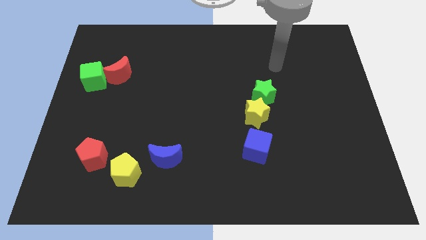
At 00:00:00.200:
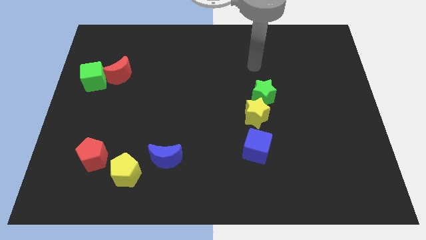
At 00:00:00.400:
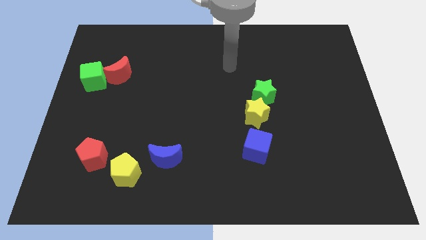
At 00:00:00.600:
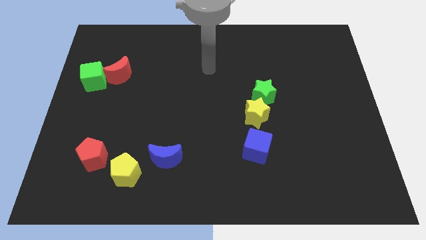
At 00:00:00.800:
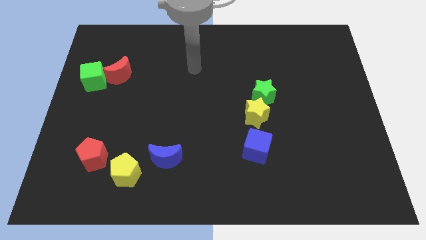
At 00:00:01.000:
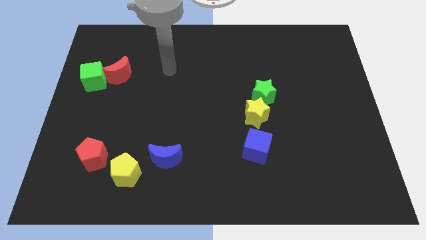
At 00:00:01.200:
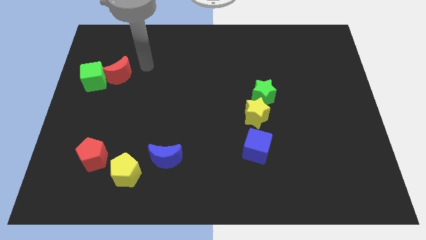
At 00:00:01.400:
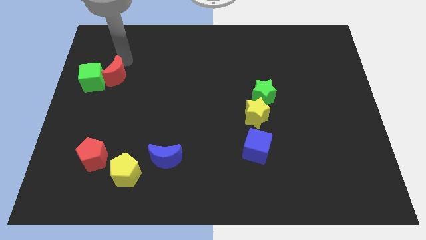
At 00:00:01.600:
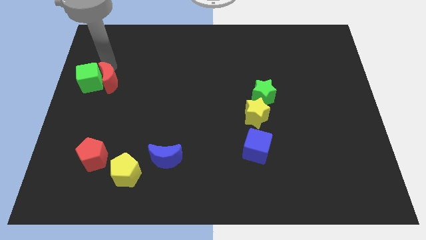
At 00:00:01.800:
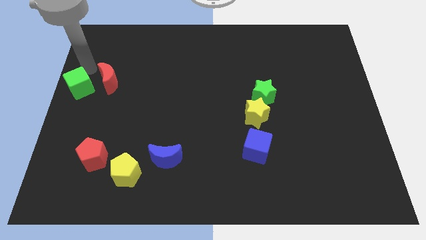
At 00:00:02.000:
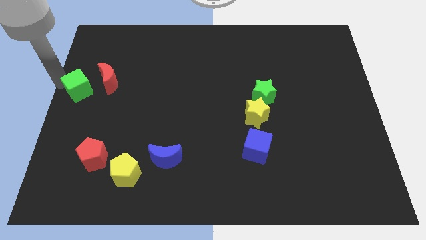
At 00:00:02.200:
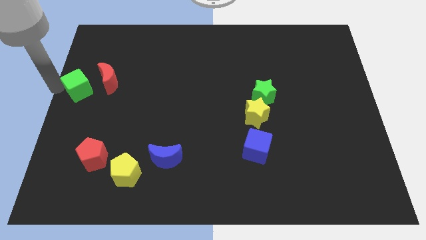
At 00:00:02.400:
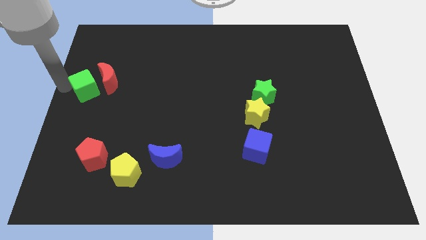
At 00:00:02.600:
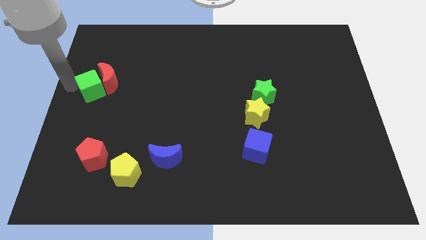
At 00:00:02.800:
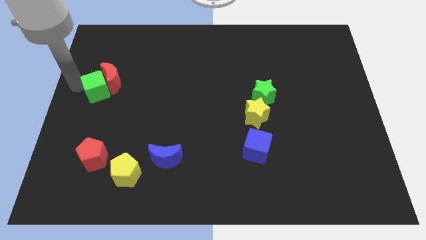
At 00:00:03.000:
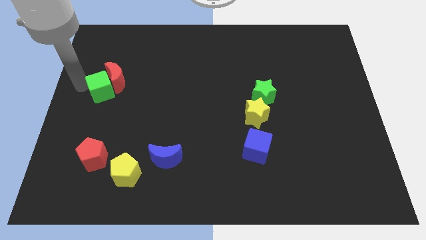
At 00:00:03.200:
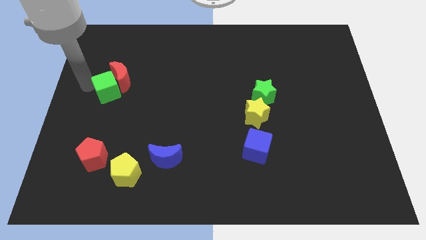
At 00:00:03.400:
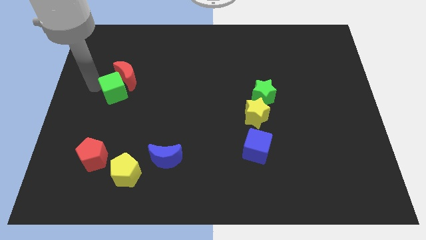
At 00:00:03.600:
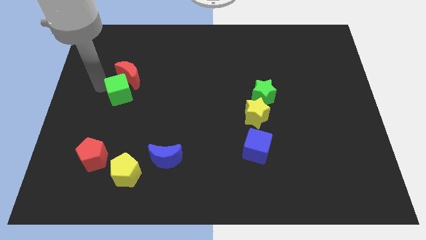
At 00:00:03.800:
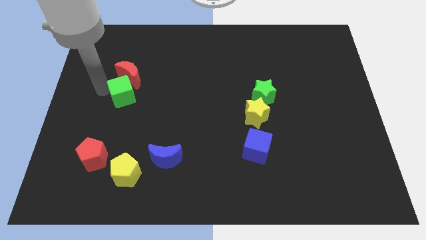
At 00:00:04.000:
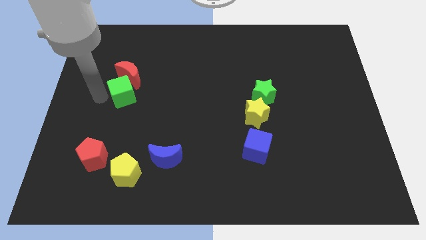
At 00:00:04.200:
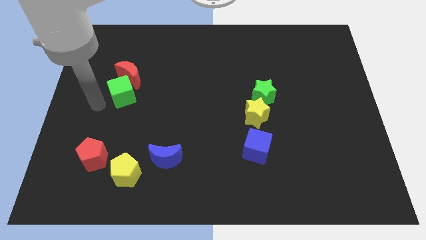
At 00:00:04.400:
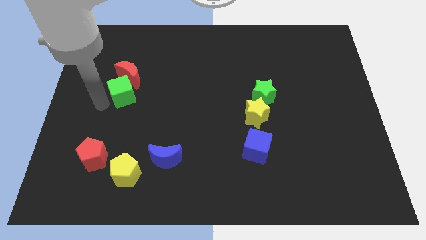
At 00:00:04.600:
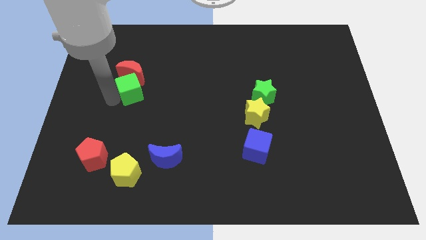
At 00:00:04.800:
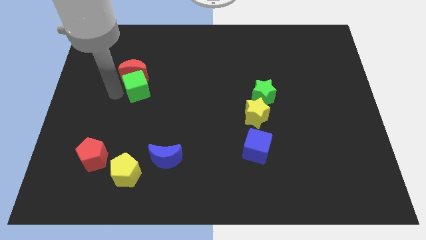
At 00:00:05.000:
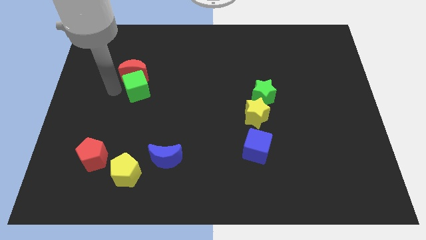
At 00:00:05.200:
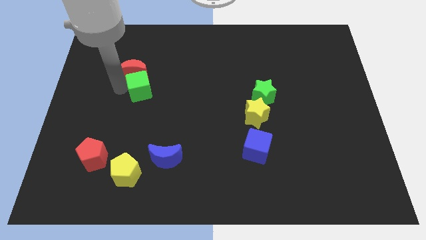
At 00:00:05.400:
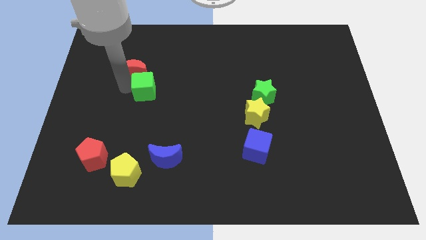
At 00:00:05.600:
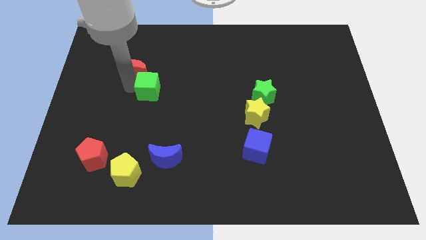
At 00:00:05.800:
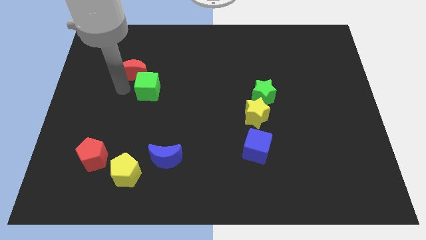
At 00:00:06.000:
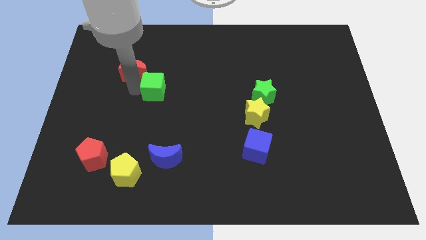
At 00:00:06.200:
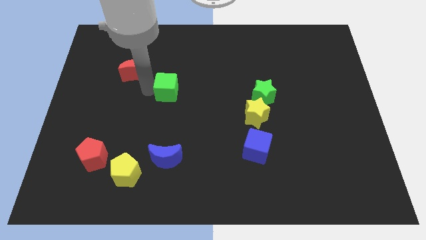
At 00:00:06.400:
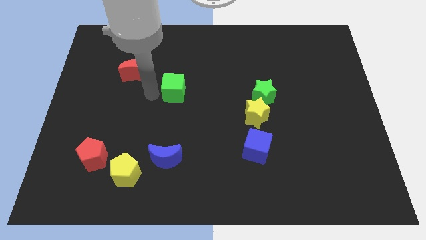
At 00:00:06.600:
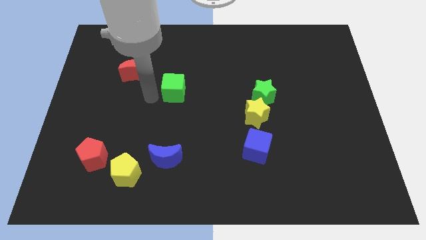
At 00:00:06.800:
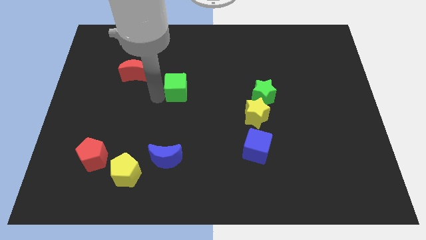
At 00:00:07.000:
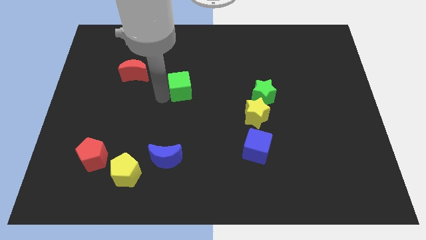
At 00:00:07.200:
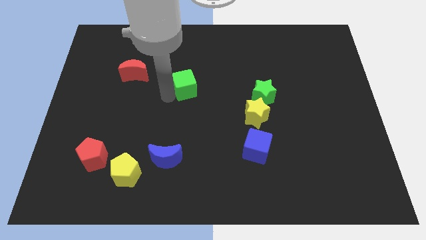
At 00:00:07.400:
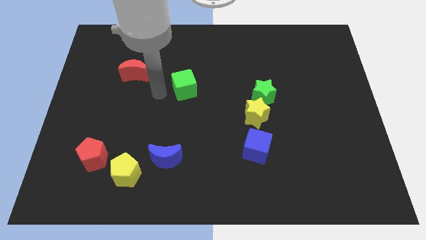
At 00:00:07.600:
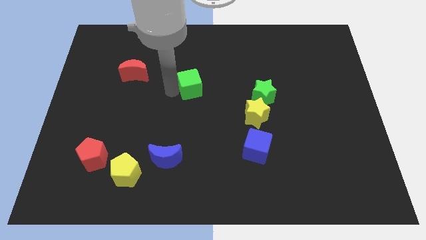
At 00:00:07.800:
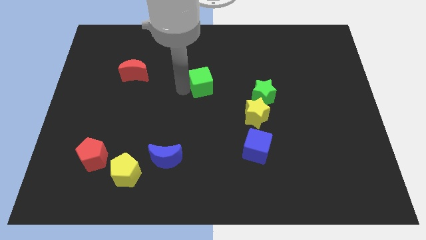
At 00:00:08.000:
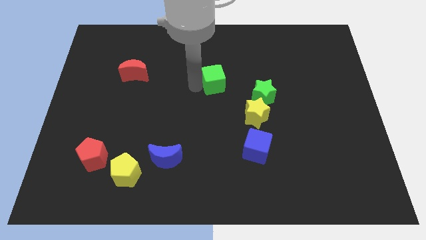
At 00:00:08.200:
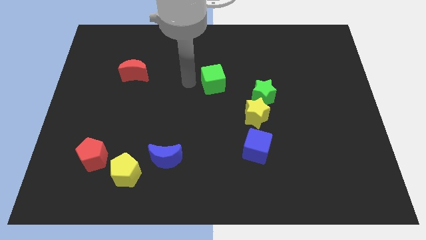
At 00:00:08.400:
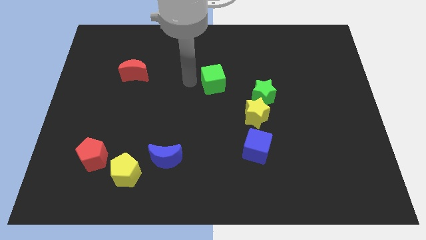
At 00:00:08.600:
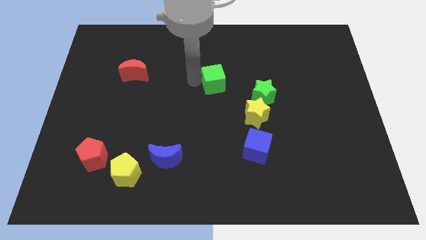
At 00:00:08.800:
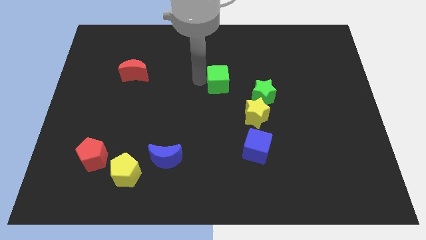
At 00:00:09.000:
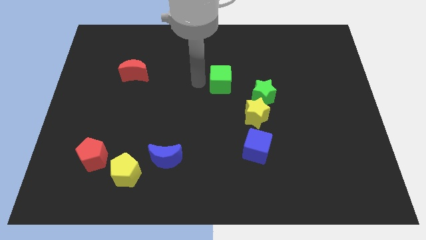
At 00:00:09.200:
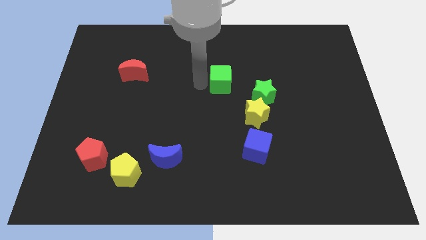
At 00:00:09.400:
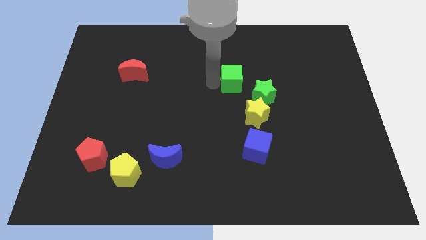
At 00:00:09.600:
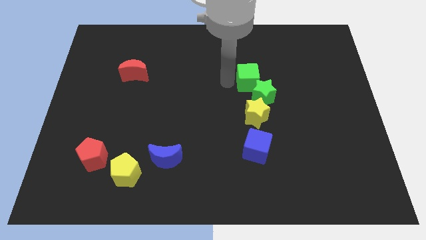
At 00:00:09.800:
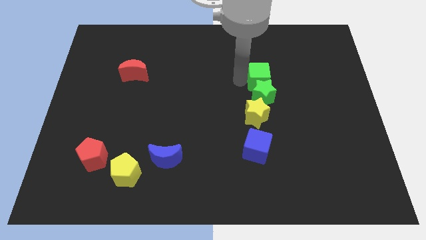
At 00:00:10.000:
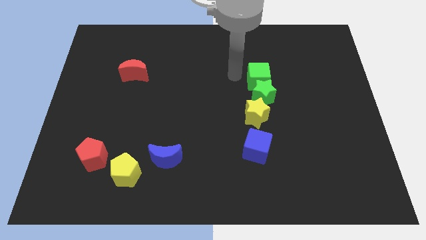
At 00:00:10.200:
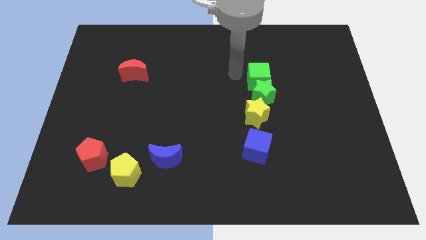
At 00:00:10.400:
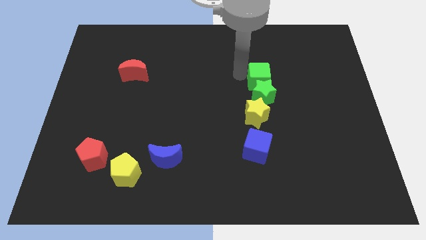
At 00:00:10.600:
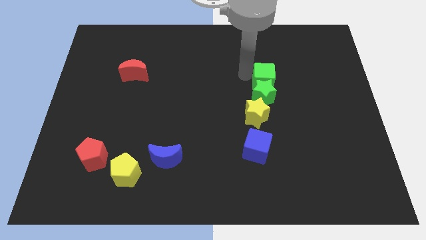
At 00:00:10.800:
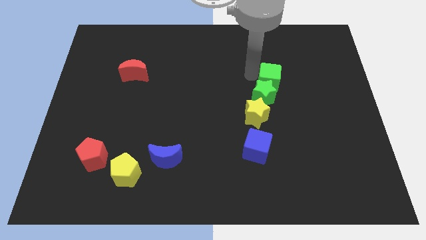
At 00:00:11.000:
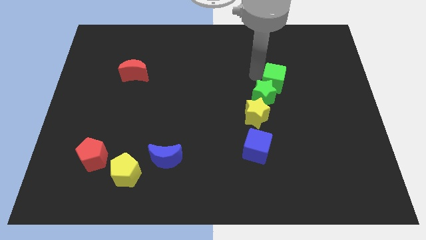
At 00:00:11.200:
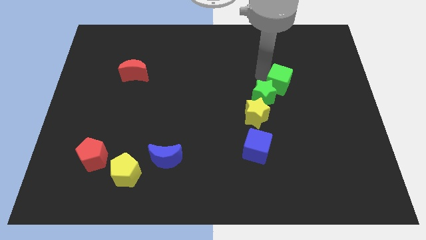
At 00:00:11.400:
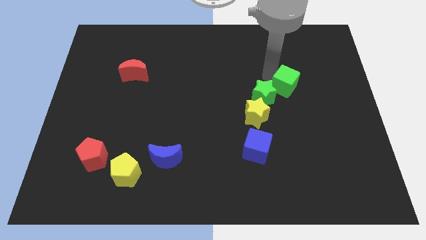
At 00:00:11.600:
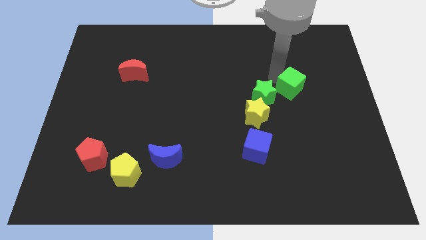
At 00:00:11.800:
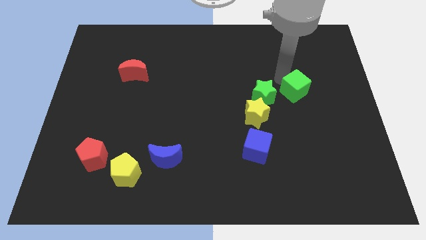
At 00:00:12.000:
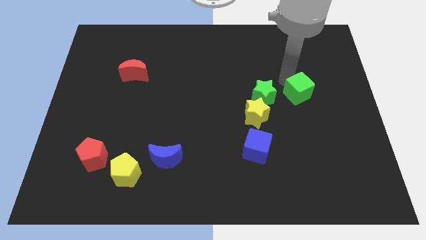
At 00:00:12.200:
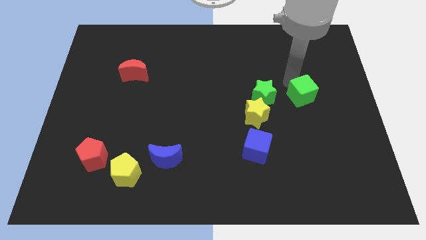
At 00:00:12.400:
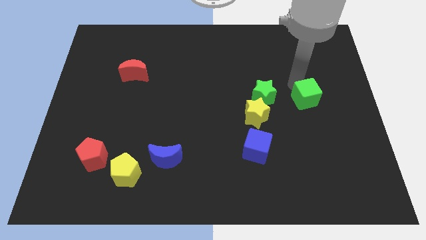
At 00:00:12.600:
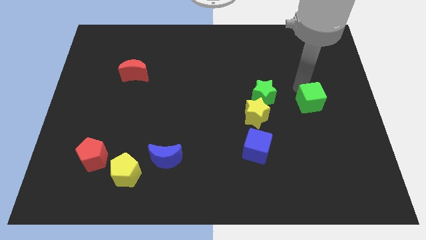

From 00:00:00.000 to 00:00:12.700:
slide the green cube to the right of the yellow star

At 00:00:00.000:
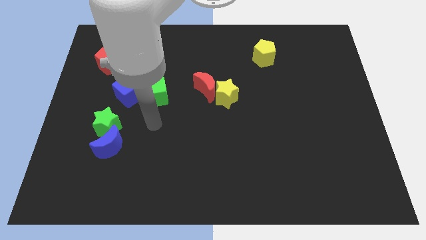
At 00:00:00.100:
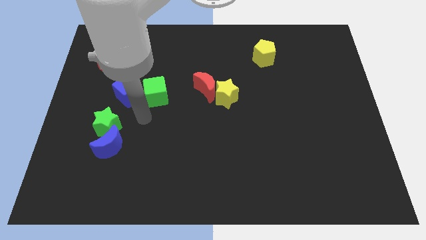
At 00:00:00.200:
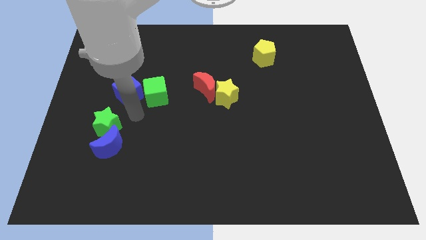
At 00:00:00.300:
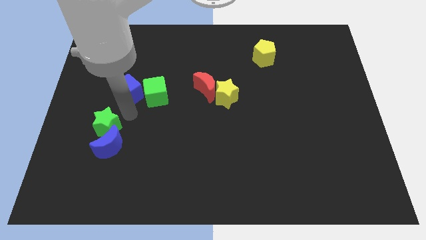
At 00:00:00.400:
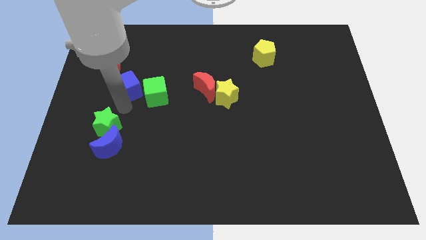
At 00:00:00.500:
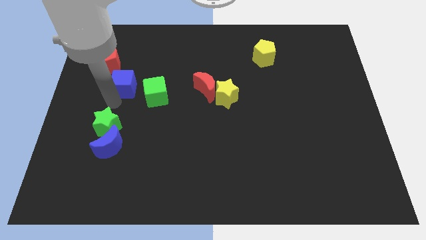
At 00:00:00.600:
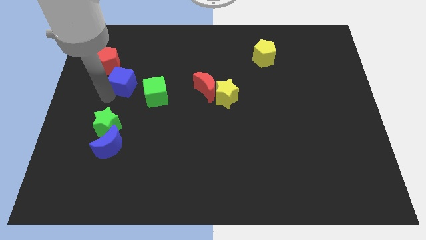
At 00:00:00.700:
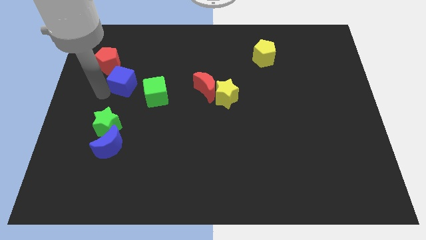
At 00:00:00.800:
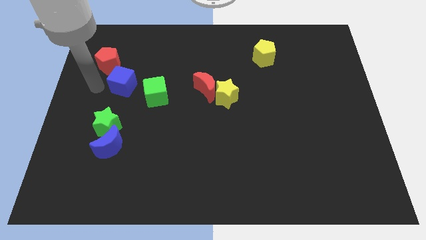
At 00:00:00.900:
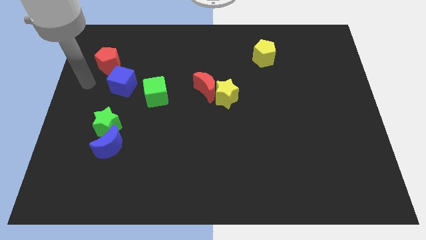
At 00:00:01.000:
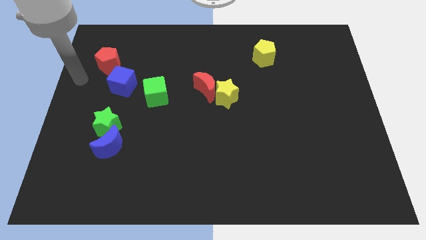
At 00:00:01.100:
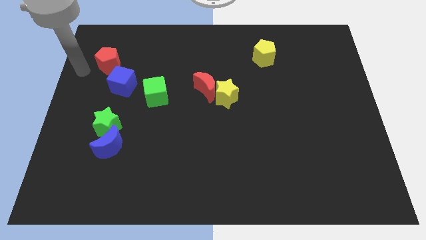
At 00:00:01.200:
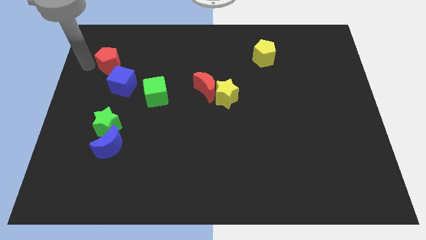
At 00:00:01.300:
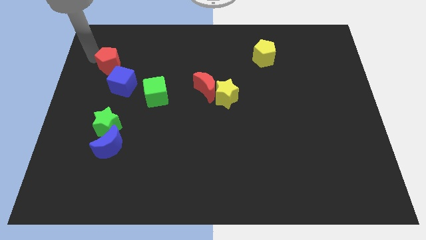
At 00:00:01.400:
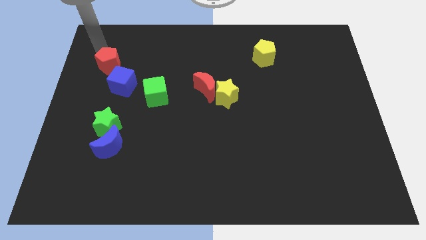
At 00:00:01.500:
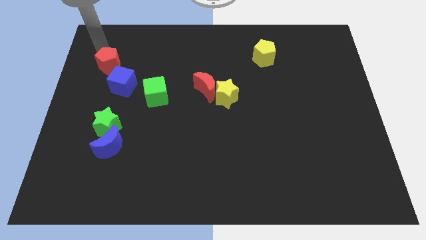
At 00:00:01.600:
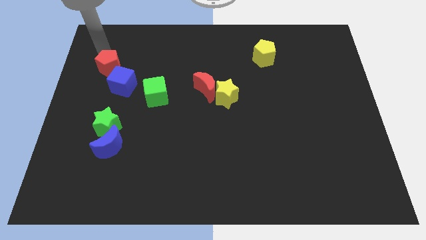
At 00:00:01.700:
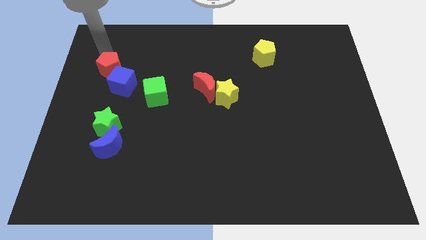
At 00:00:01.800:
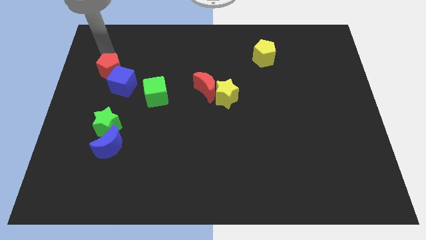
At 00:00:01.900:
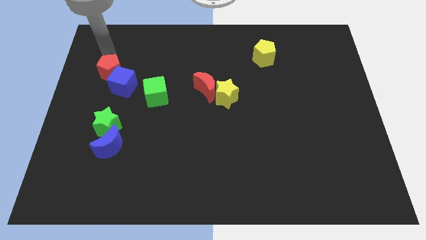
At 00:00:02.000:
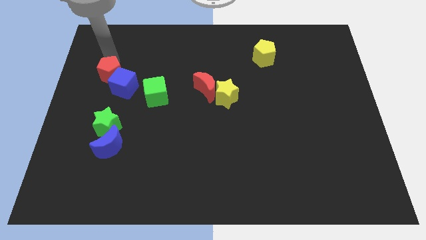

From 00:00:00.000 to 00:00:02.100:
slide the red pentagon to the top of the green star
